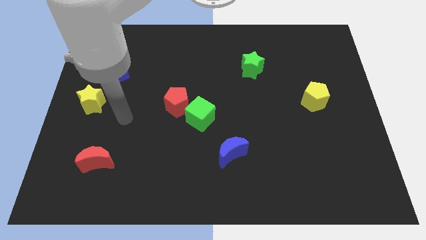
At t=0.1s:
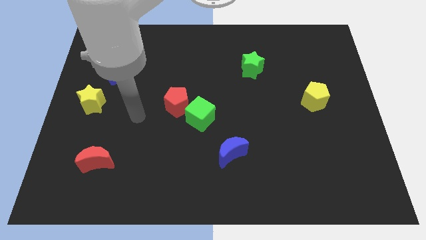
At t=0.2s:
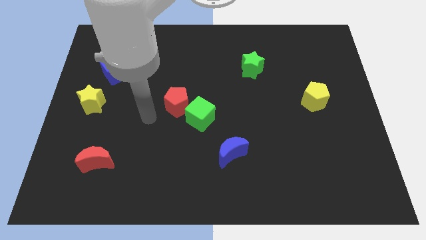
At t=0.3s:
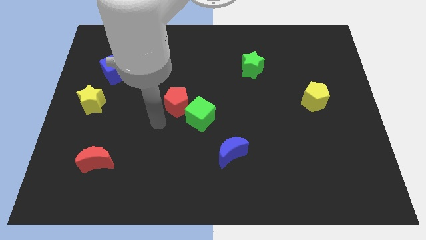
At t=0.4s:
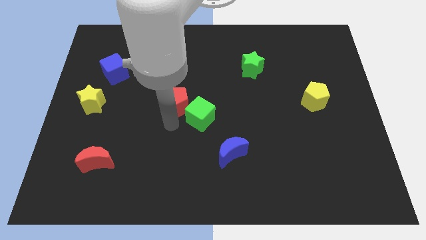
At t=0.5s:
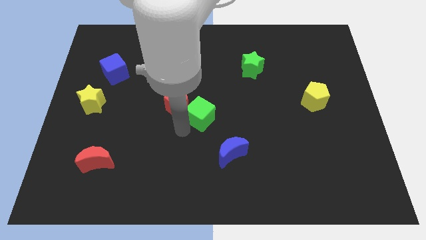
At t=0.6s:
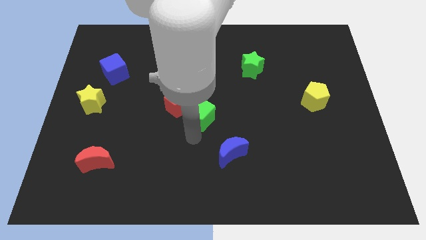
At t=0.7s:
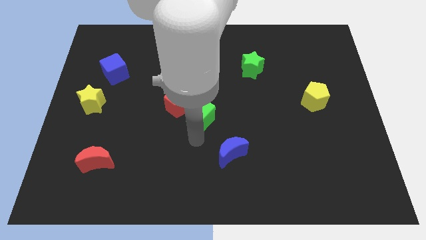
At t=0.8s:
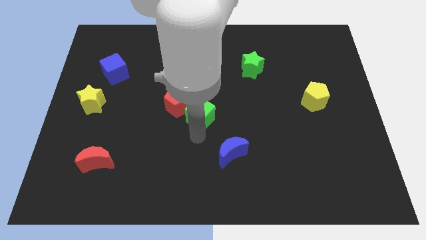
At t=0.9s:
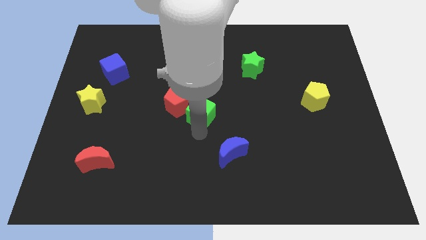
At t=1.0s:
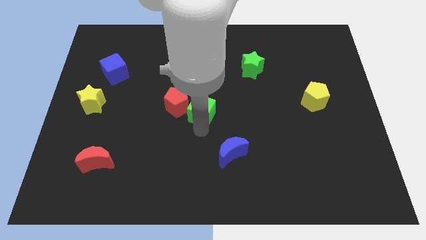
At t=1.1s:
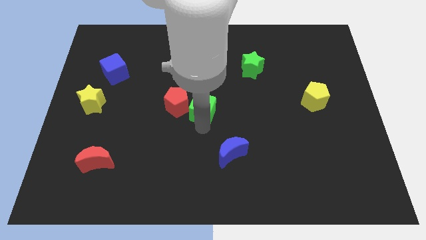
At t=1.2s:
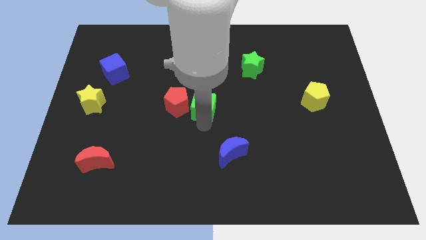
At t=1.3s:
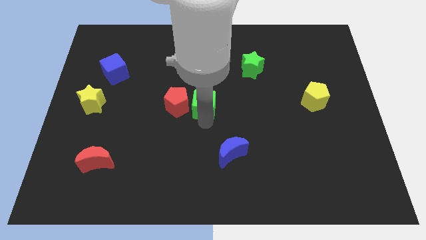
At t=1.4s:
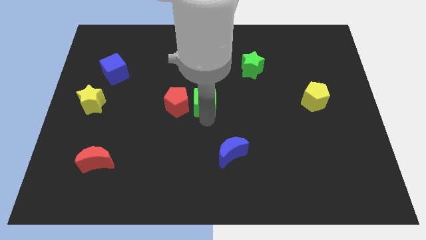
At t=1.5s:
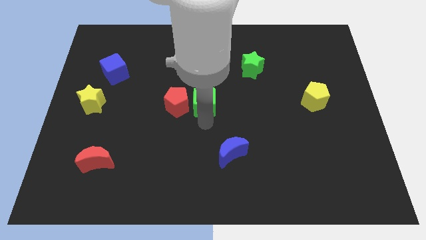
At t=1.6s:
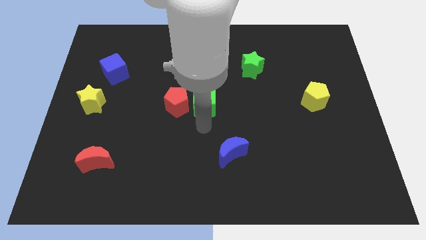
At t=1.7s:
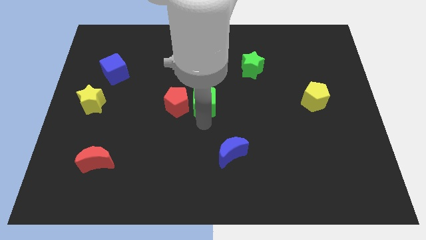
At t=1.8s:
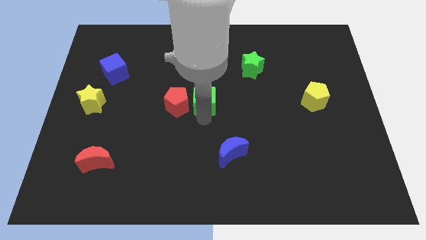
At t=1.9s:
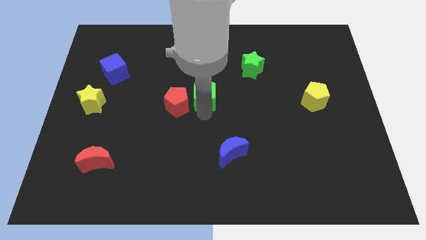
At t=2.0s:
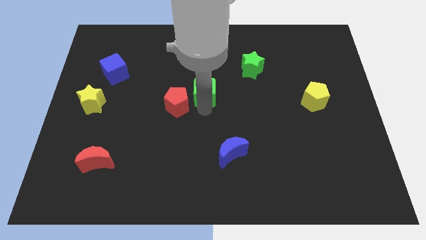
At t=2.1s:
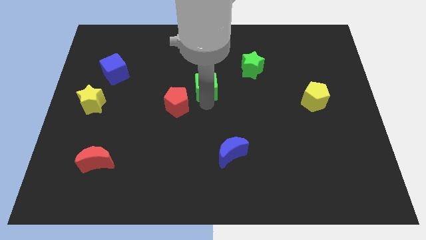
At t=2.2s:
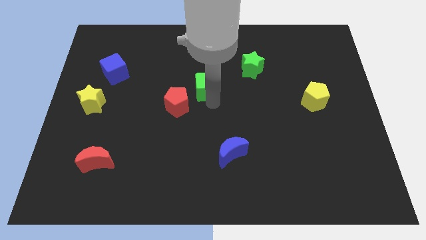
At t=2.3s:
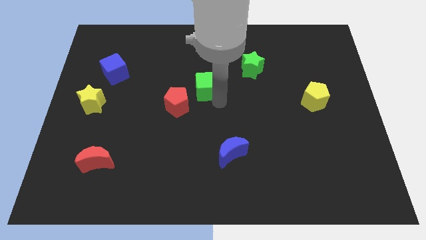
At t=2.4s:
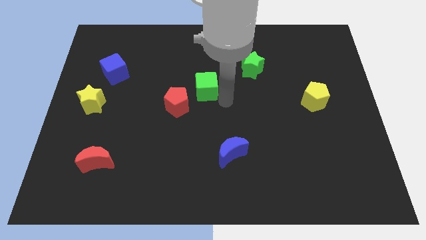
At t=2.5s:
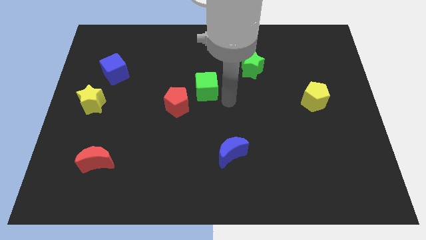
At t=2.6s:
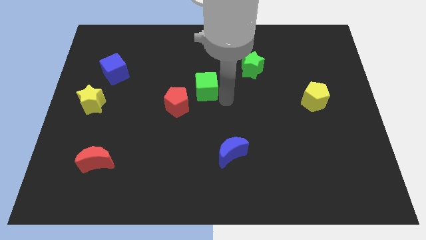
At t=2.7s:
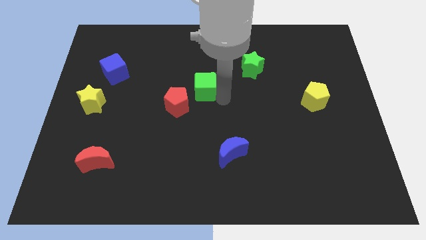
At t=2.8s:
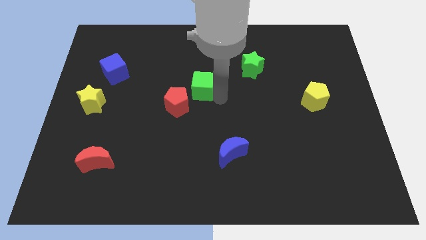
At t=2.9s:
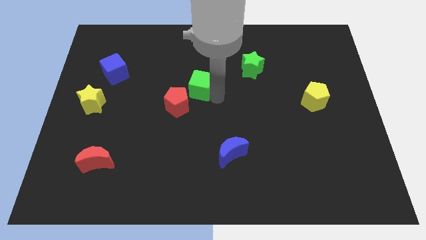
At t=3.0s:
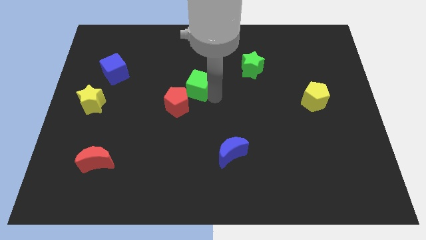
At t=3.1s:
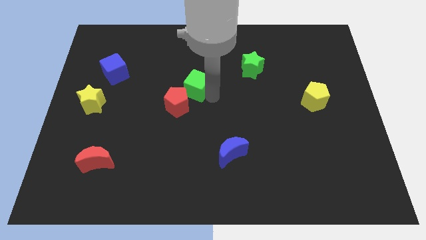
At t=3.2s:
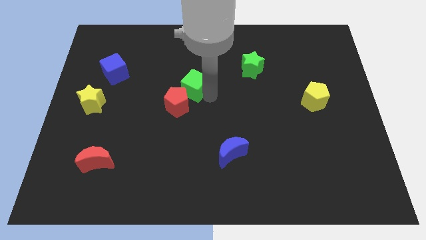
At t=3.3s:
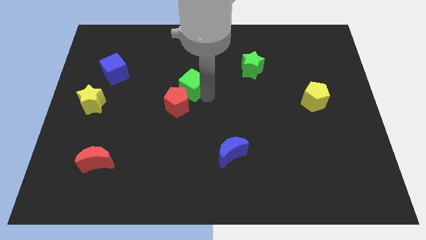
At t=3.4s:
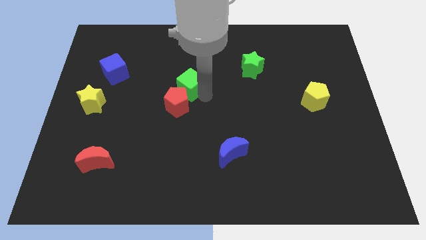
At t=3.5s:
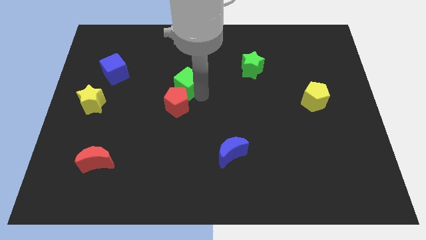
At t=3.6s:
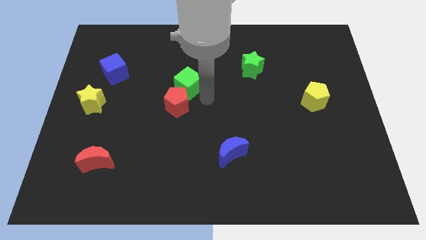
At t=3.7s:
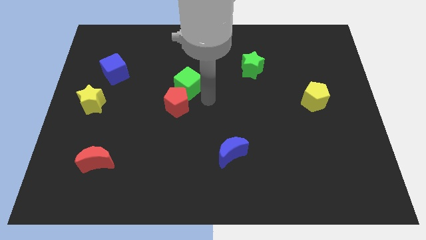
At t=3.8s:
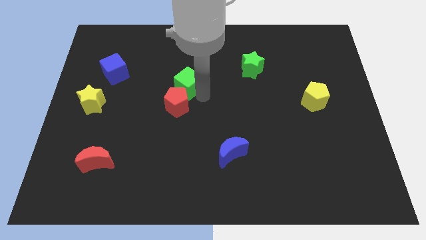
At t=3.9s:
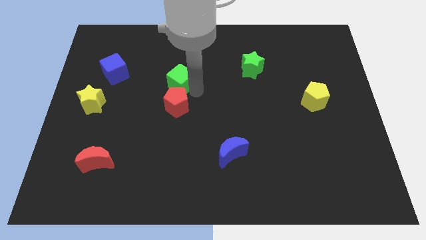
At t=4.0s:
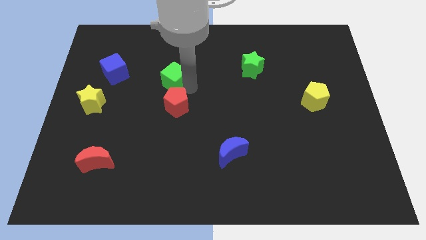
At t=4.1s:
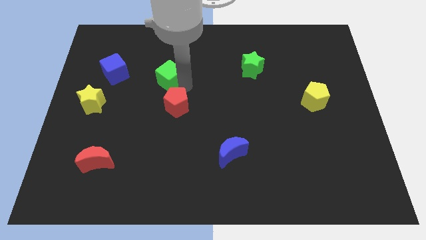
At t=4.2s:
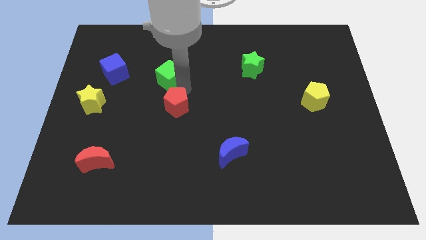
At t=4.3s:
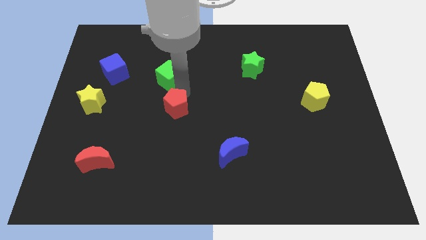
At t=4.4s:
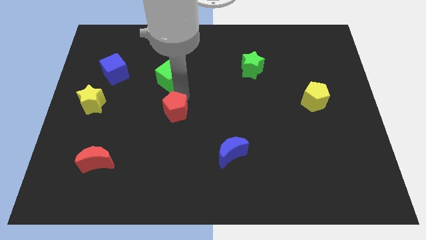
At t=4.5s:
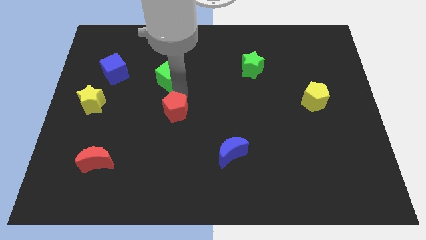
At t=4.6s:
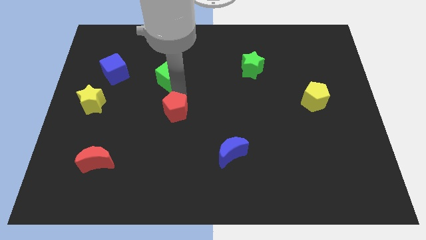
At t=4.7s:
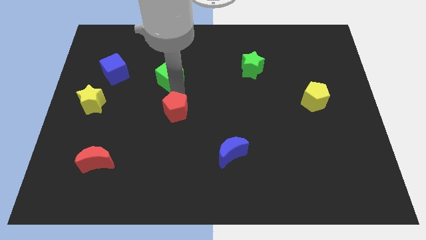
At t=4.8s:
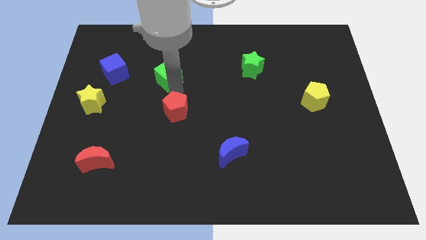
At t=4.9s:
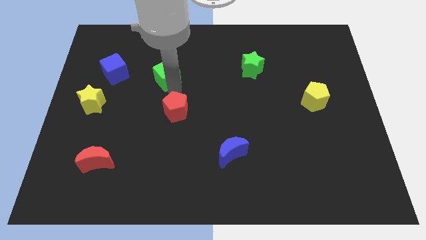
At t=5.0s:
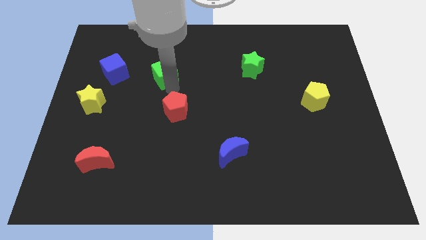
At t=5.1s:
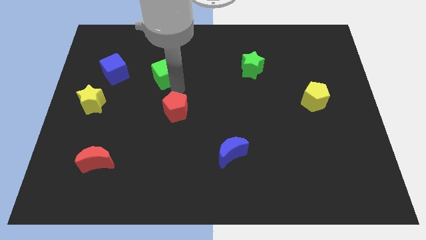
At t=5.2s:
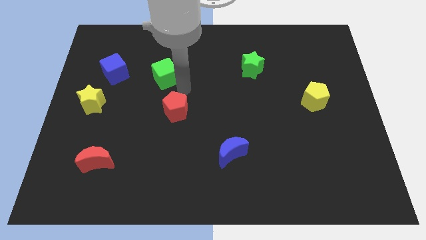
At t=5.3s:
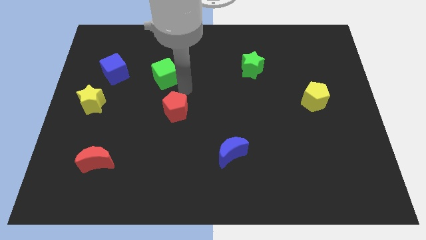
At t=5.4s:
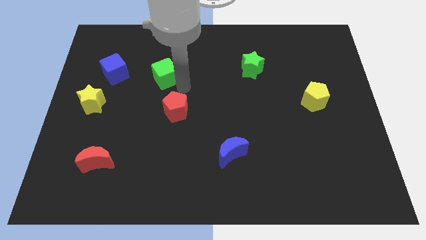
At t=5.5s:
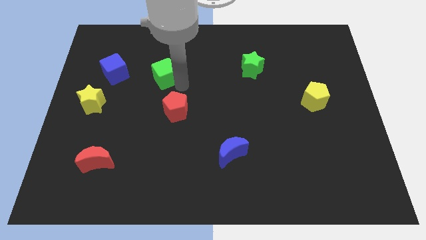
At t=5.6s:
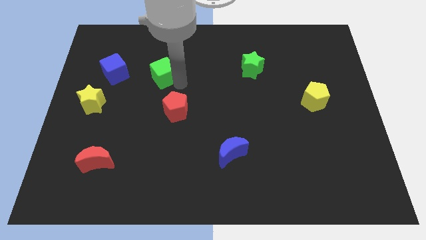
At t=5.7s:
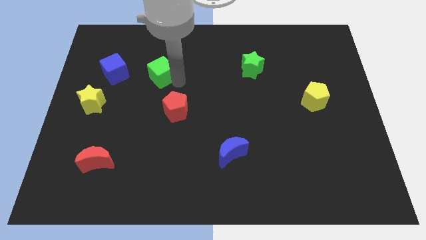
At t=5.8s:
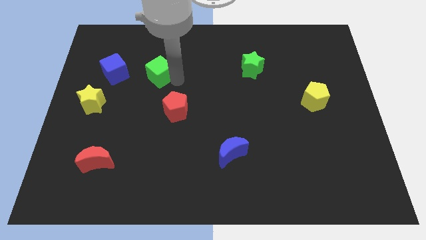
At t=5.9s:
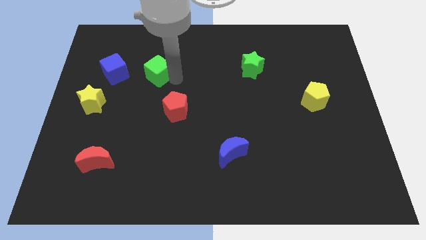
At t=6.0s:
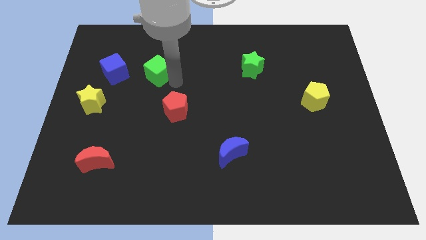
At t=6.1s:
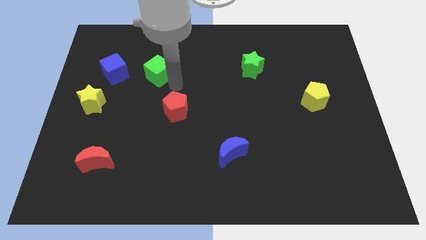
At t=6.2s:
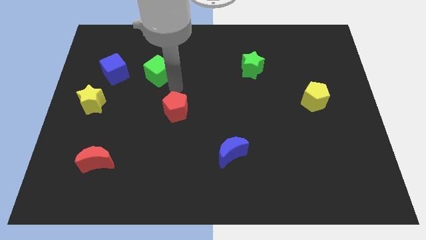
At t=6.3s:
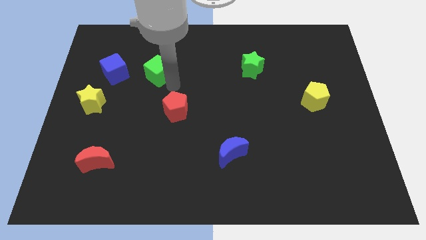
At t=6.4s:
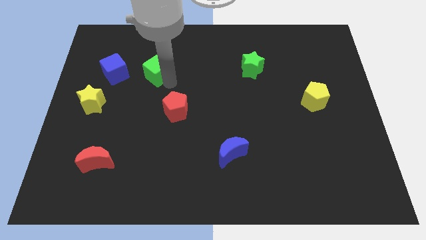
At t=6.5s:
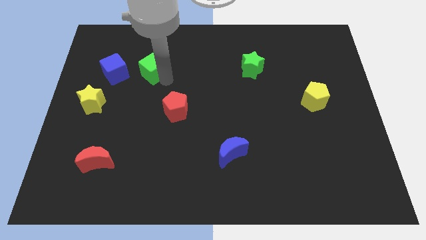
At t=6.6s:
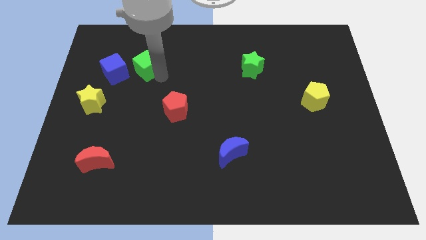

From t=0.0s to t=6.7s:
push the green cube to the top right side of the blue cube
